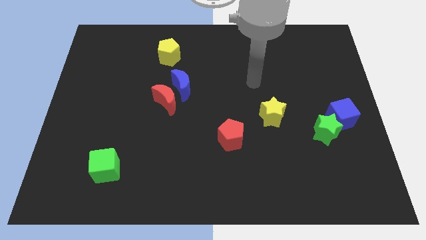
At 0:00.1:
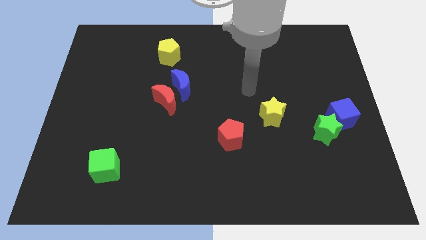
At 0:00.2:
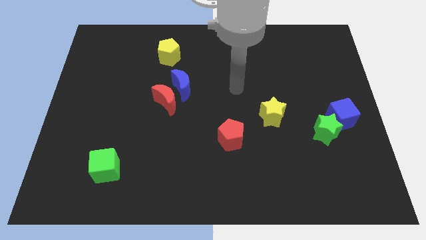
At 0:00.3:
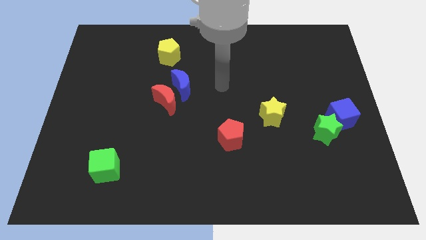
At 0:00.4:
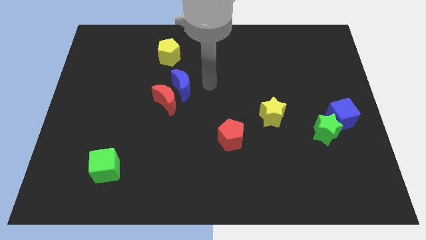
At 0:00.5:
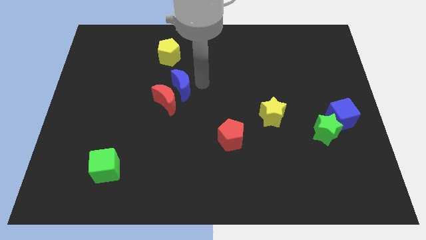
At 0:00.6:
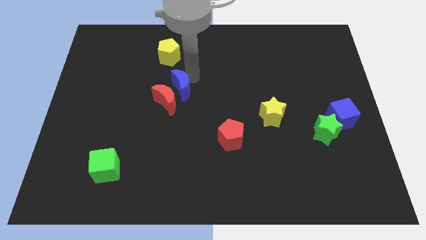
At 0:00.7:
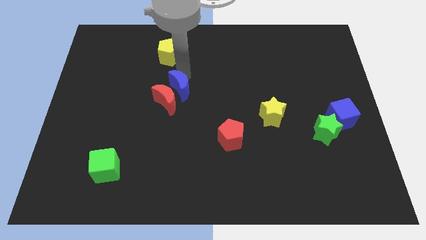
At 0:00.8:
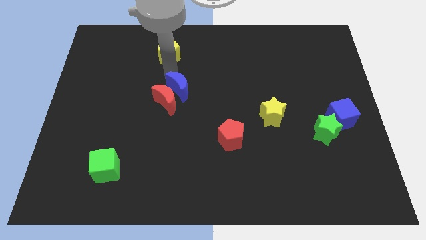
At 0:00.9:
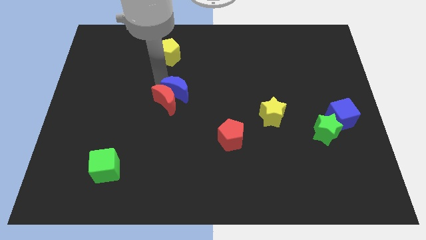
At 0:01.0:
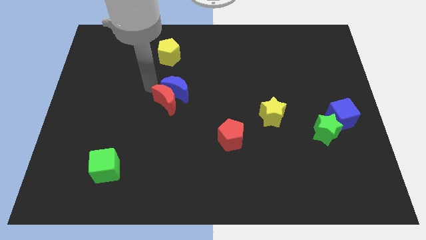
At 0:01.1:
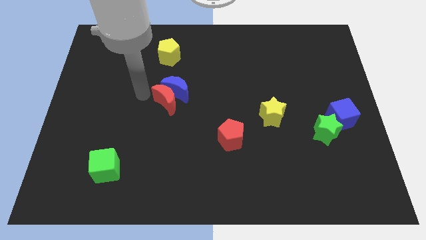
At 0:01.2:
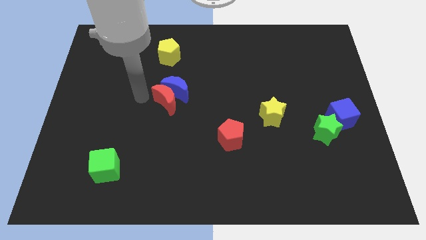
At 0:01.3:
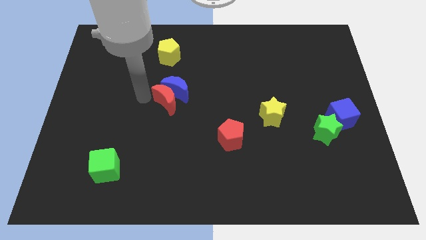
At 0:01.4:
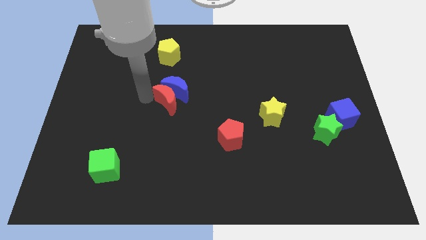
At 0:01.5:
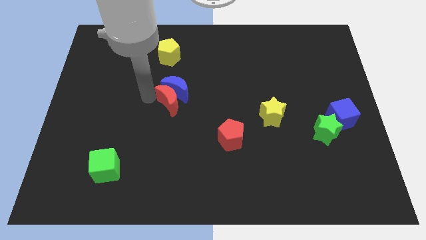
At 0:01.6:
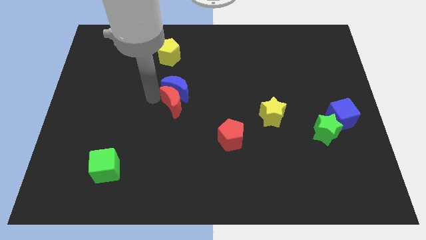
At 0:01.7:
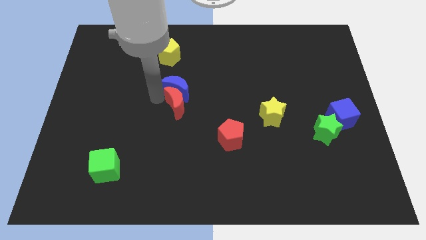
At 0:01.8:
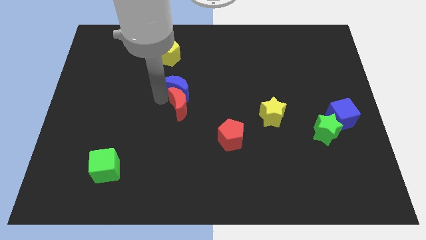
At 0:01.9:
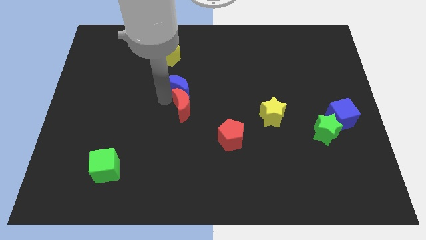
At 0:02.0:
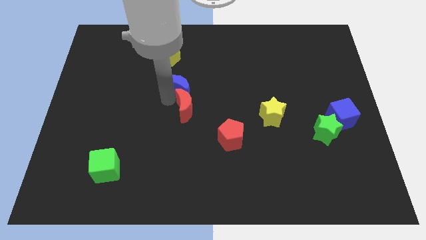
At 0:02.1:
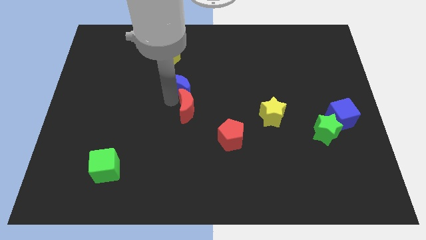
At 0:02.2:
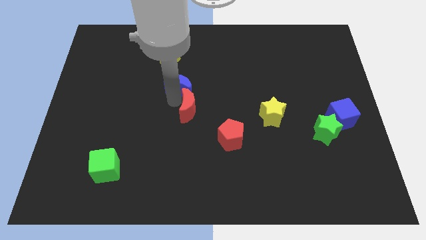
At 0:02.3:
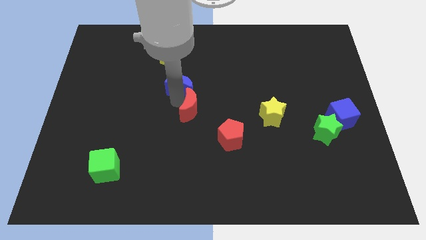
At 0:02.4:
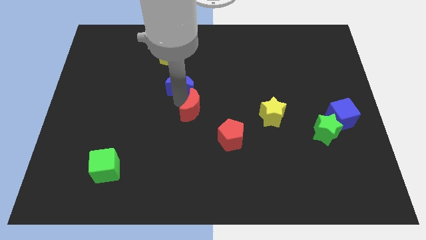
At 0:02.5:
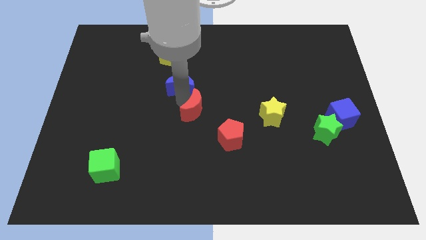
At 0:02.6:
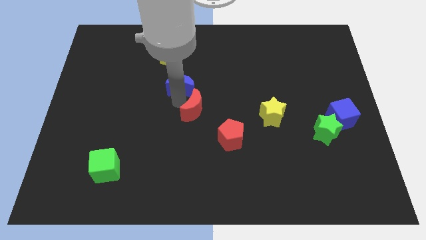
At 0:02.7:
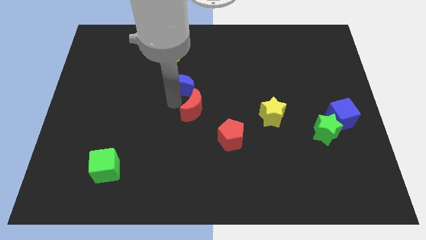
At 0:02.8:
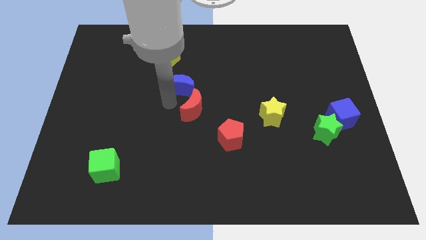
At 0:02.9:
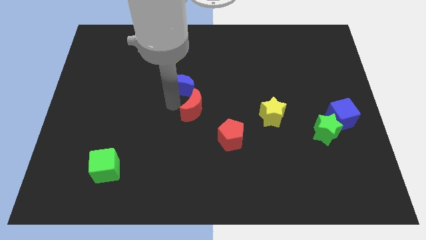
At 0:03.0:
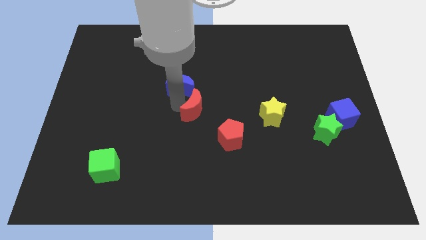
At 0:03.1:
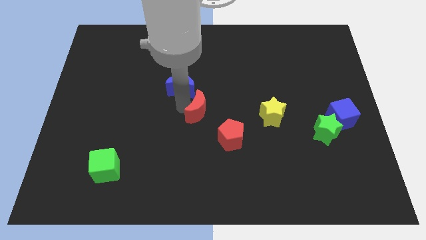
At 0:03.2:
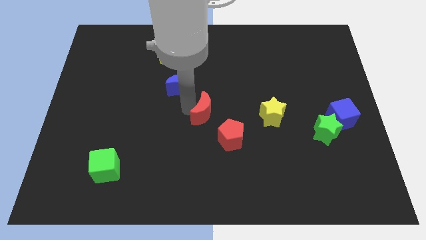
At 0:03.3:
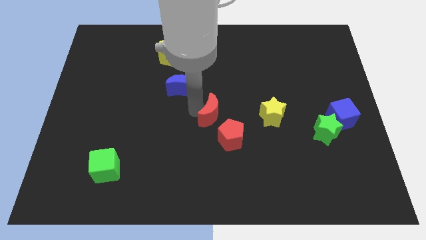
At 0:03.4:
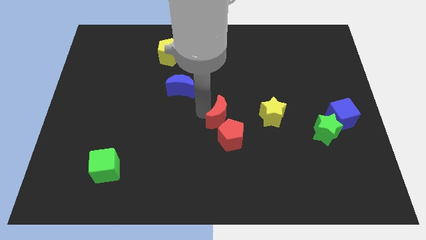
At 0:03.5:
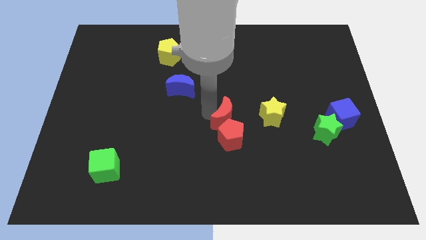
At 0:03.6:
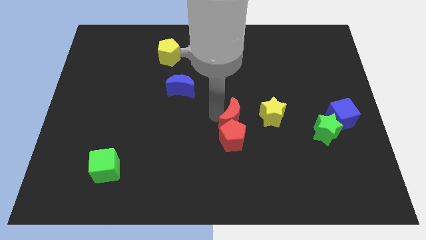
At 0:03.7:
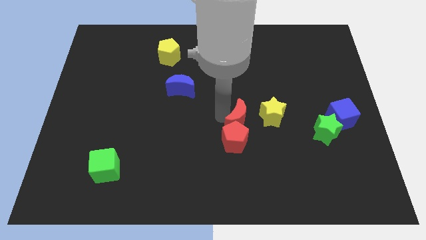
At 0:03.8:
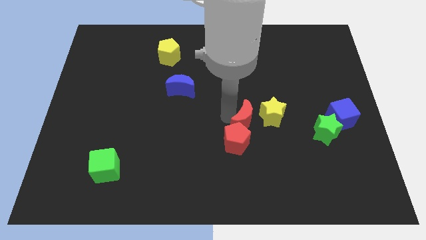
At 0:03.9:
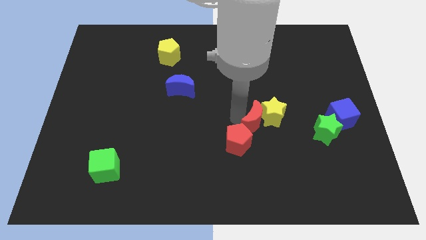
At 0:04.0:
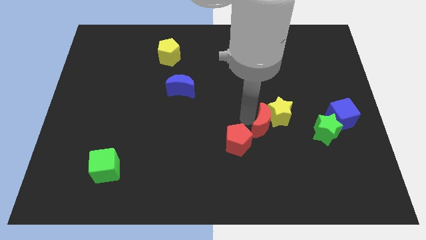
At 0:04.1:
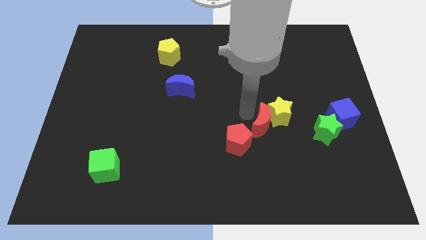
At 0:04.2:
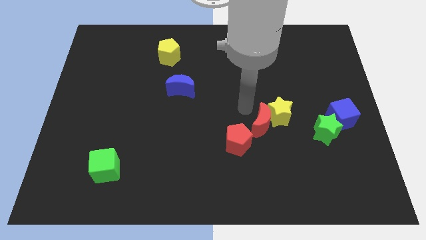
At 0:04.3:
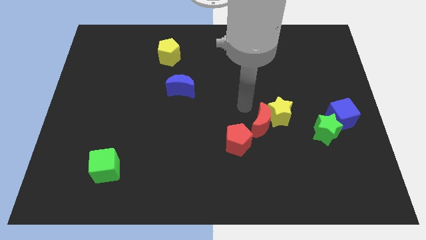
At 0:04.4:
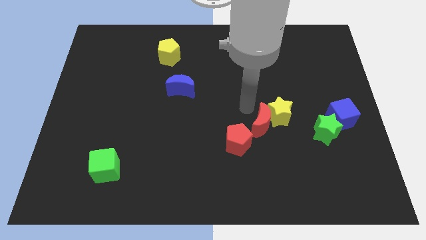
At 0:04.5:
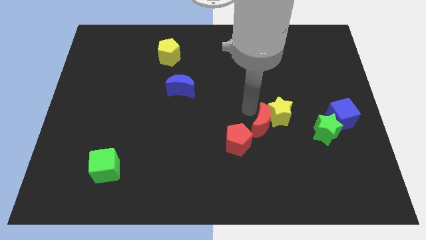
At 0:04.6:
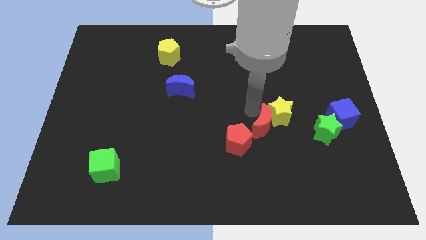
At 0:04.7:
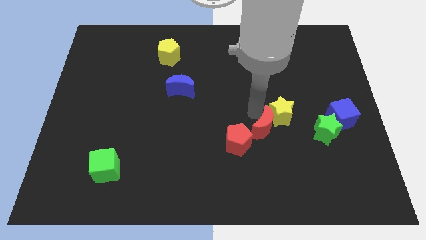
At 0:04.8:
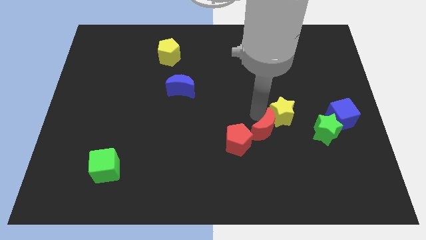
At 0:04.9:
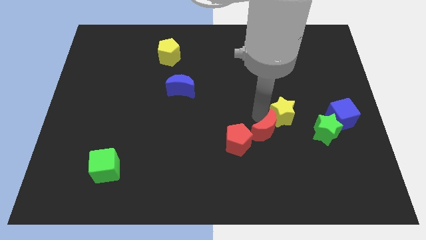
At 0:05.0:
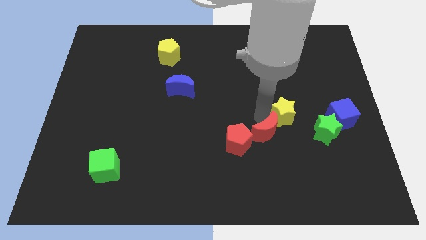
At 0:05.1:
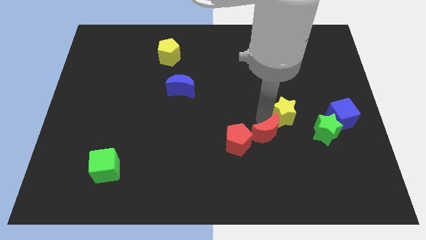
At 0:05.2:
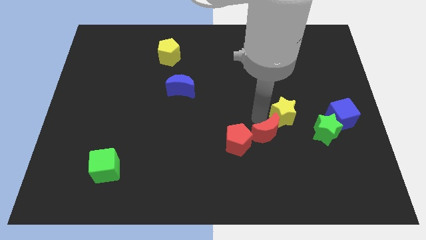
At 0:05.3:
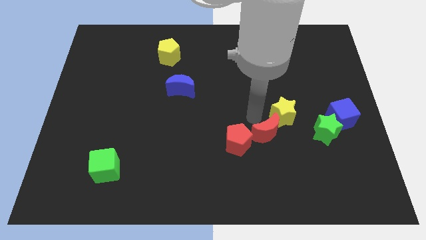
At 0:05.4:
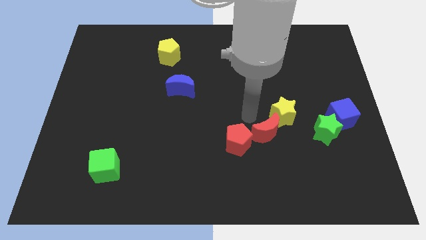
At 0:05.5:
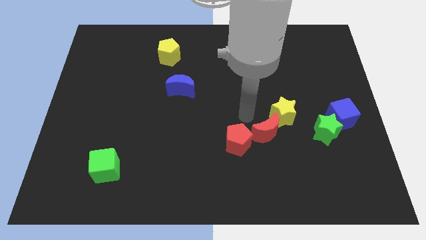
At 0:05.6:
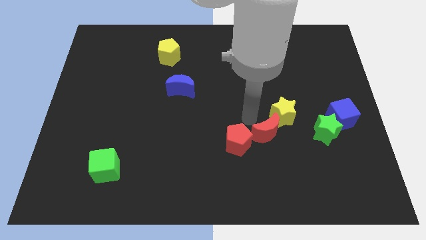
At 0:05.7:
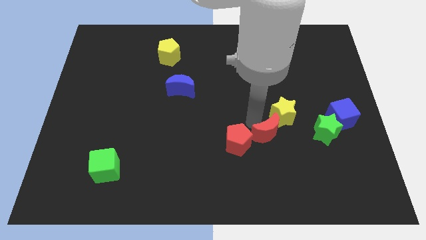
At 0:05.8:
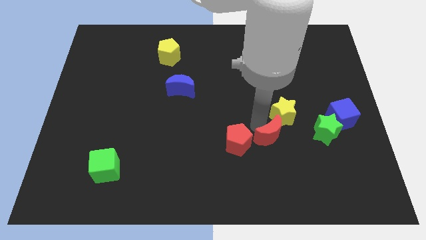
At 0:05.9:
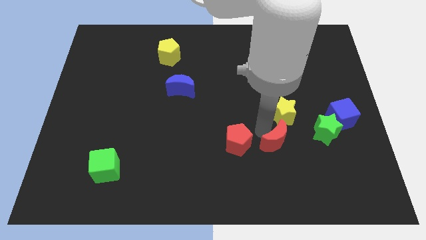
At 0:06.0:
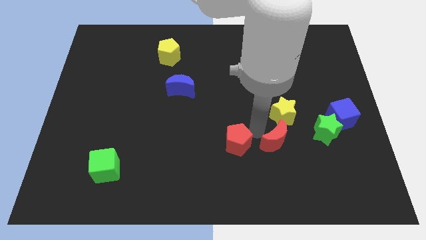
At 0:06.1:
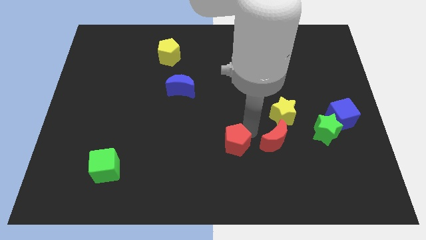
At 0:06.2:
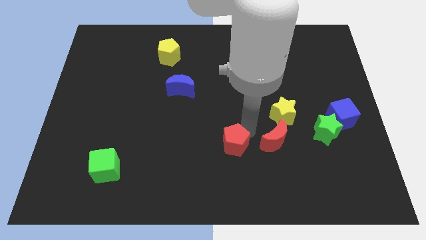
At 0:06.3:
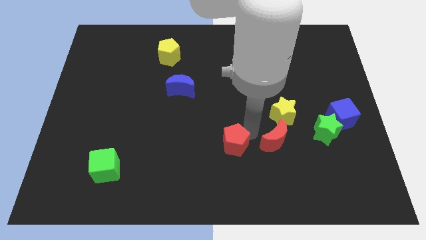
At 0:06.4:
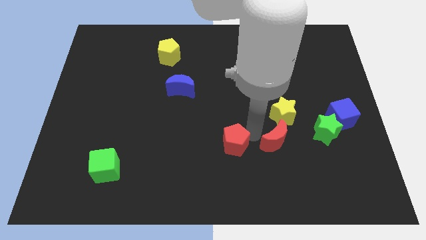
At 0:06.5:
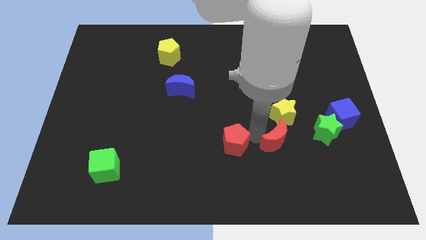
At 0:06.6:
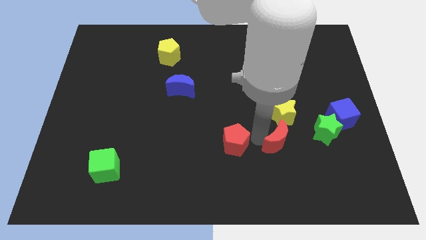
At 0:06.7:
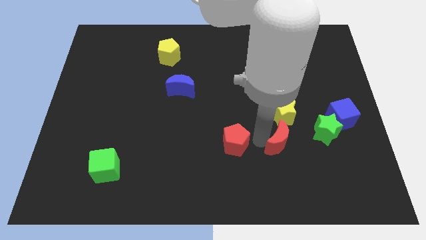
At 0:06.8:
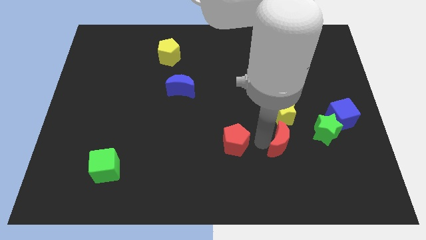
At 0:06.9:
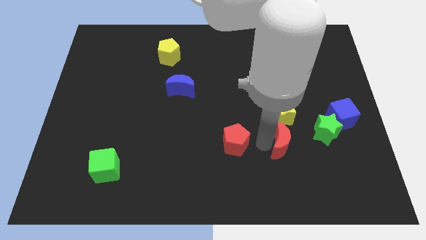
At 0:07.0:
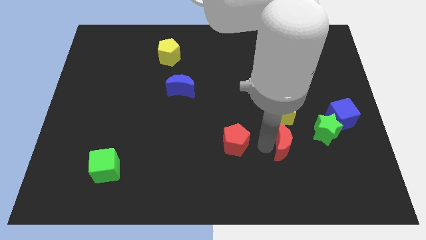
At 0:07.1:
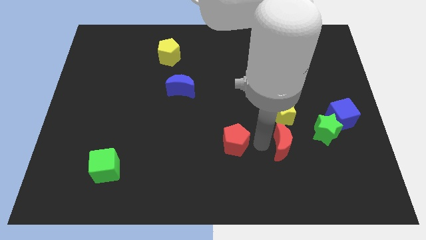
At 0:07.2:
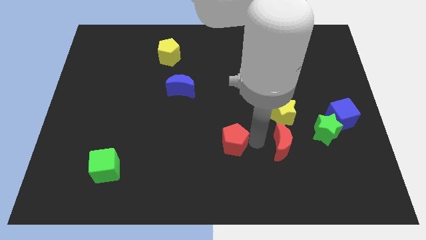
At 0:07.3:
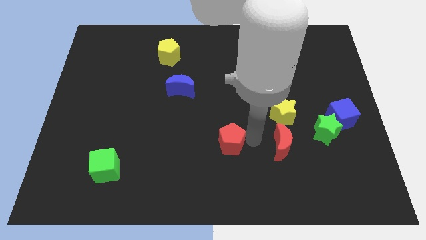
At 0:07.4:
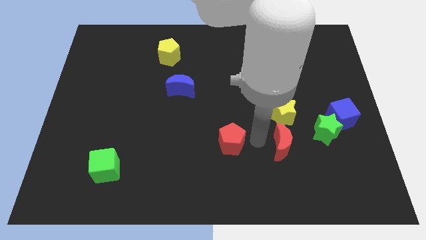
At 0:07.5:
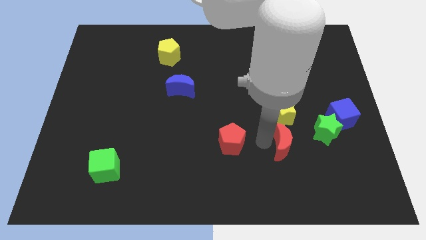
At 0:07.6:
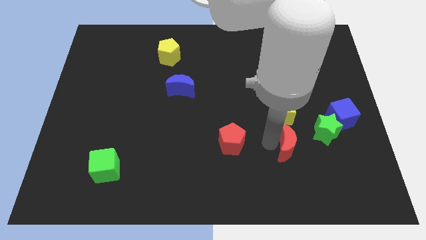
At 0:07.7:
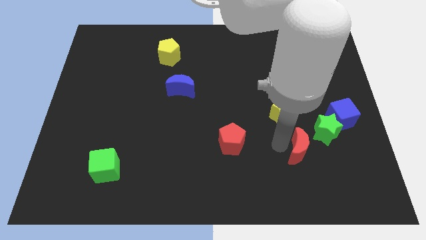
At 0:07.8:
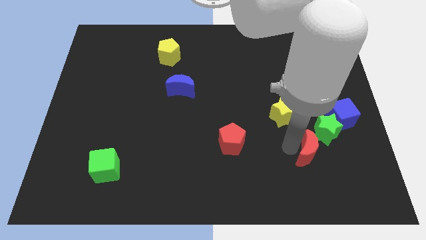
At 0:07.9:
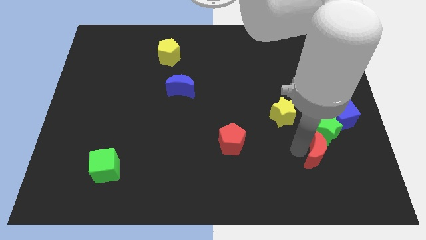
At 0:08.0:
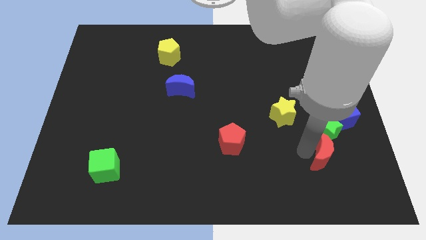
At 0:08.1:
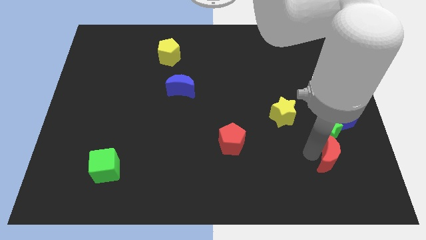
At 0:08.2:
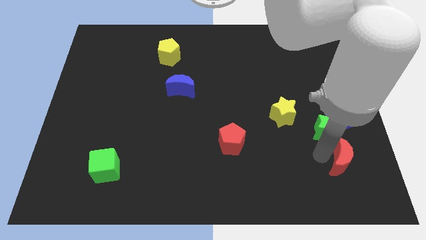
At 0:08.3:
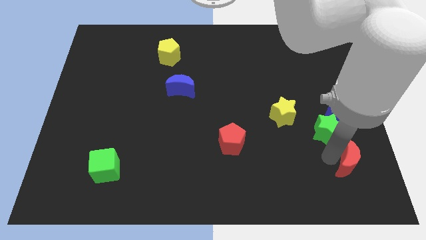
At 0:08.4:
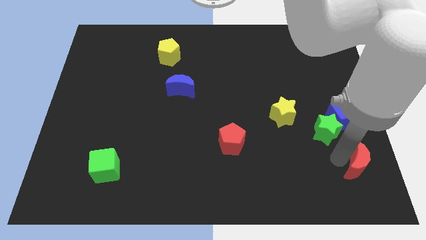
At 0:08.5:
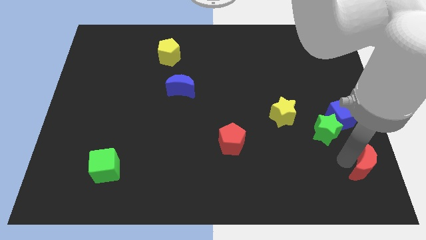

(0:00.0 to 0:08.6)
push the red moon to the lower right corner
